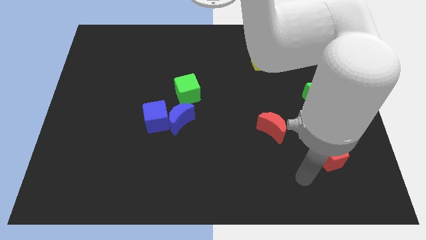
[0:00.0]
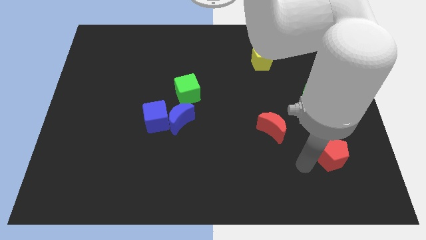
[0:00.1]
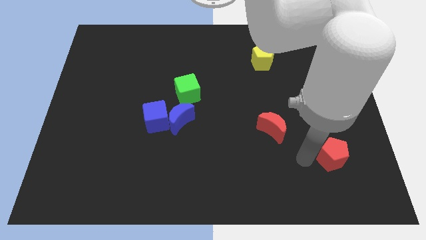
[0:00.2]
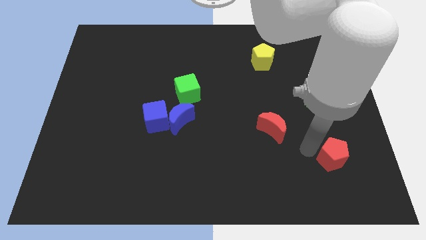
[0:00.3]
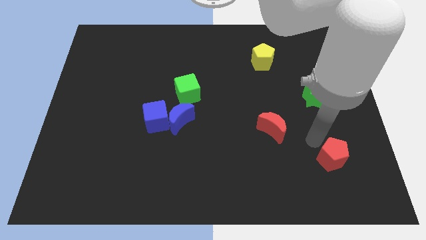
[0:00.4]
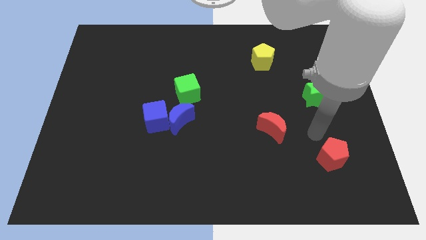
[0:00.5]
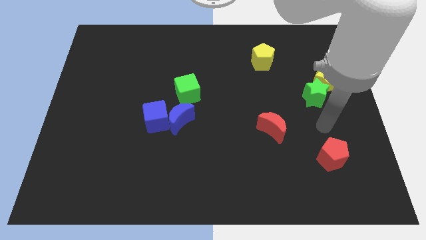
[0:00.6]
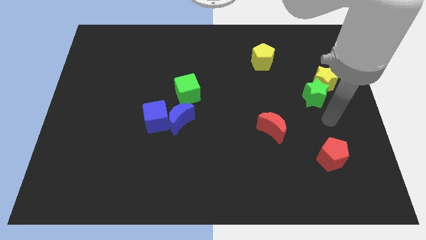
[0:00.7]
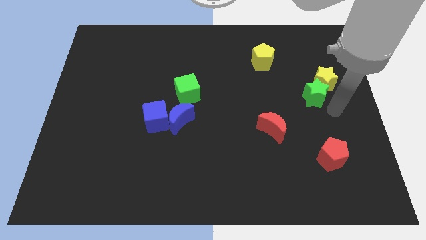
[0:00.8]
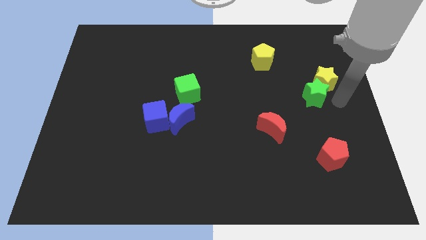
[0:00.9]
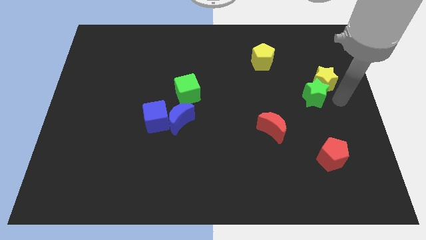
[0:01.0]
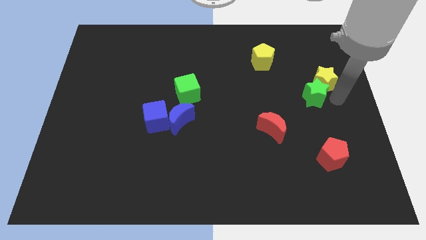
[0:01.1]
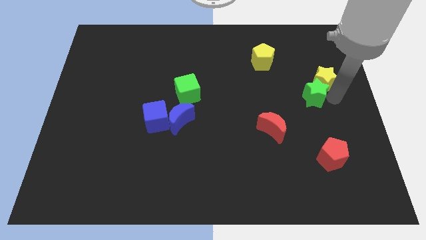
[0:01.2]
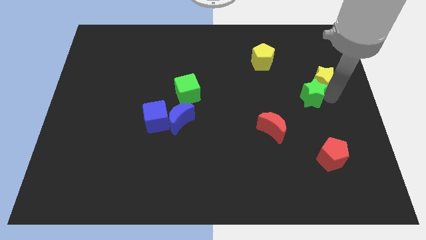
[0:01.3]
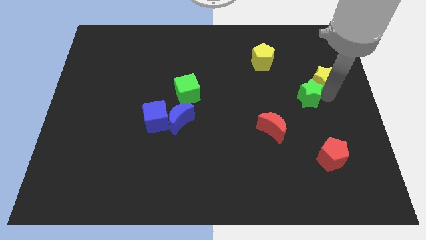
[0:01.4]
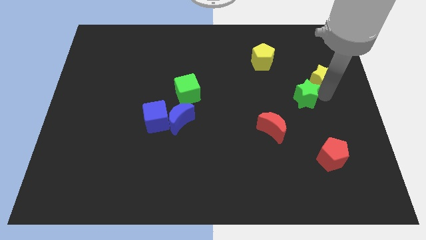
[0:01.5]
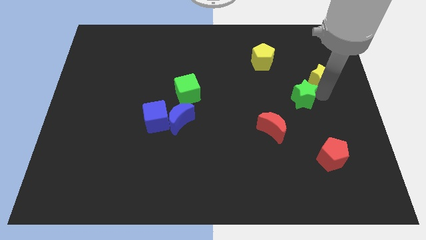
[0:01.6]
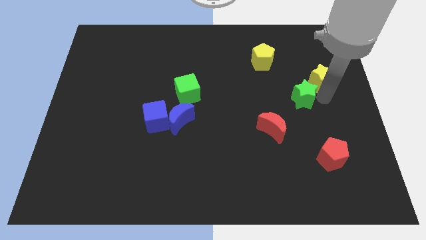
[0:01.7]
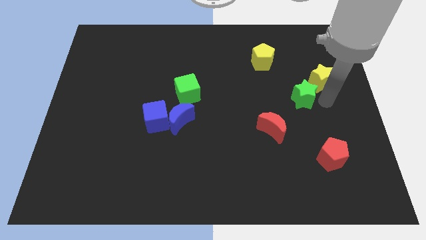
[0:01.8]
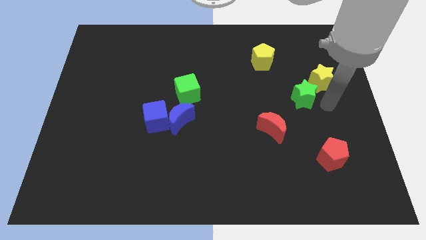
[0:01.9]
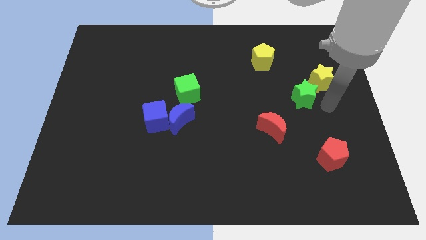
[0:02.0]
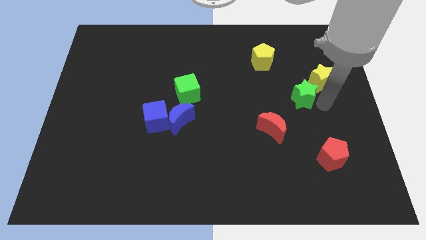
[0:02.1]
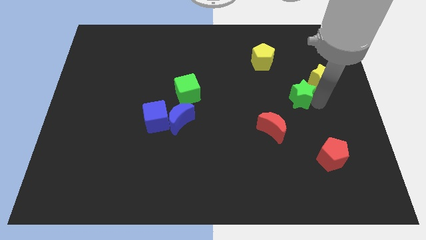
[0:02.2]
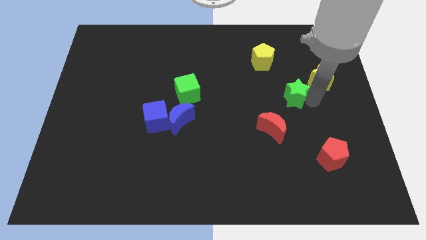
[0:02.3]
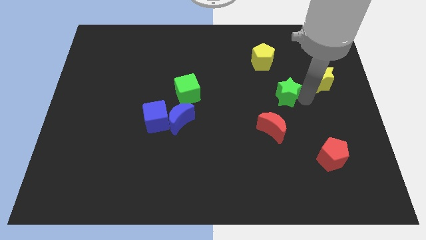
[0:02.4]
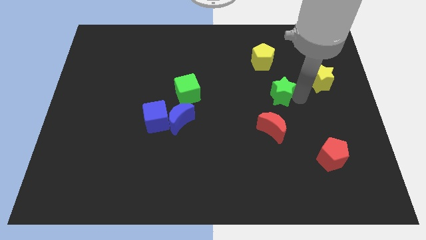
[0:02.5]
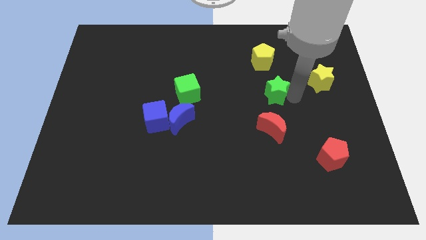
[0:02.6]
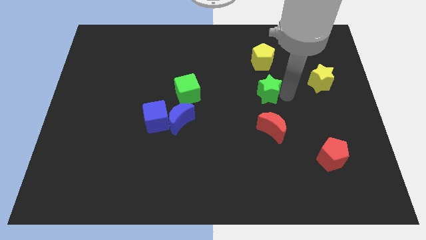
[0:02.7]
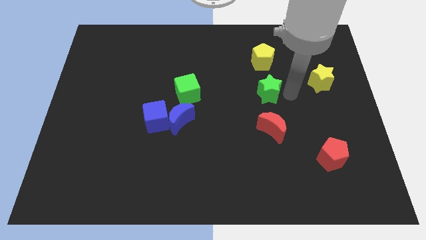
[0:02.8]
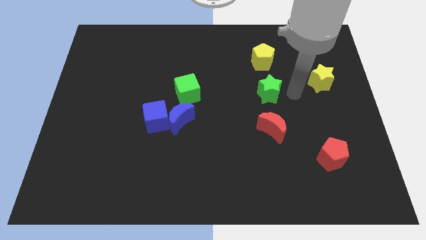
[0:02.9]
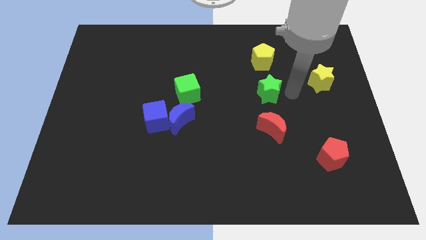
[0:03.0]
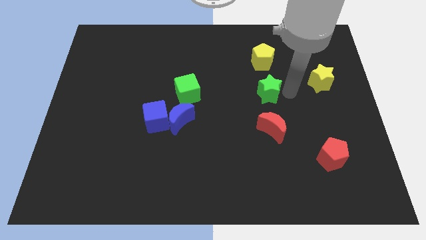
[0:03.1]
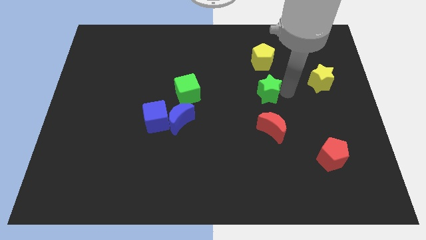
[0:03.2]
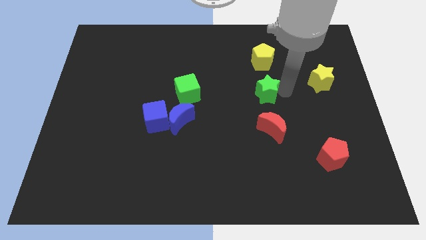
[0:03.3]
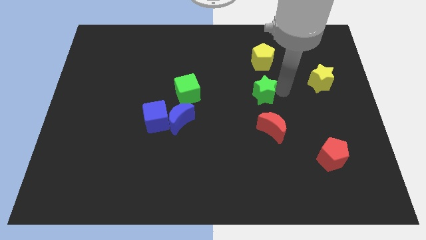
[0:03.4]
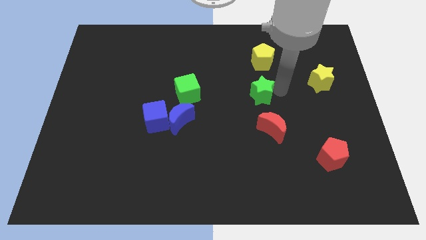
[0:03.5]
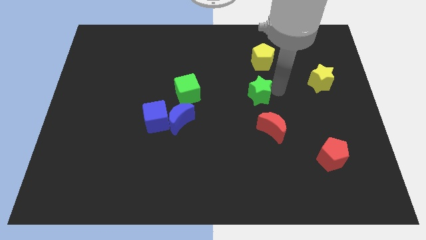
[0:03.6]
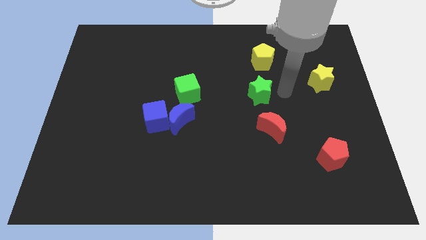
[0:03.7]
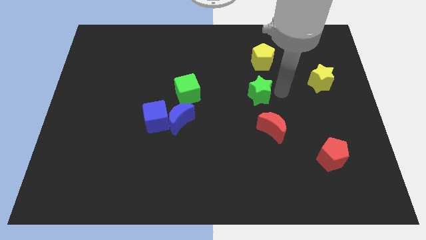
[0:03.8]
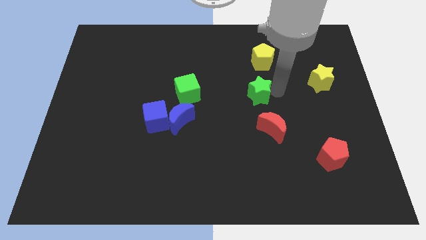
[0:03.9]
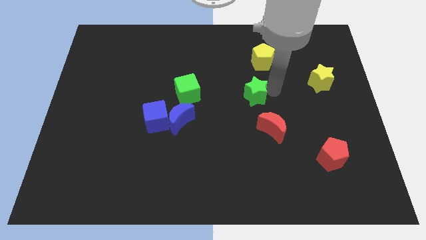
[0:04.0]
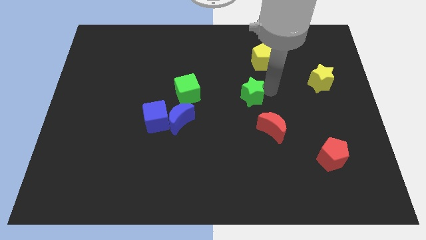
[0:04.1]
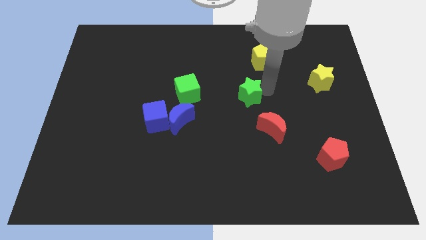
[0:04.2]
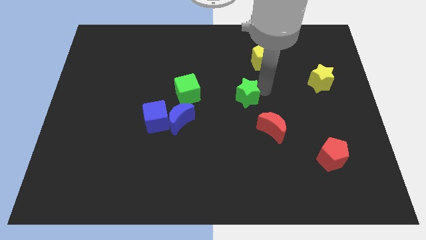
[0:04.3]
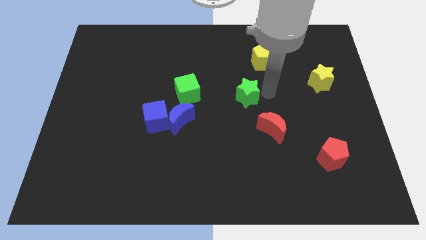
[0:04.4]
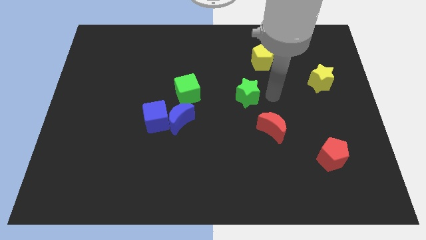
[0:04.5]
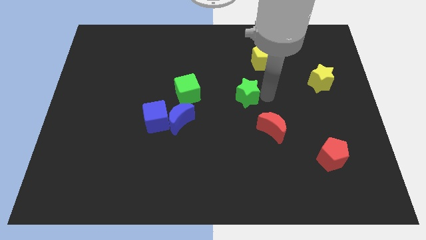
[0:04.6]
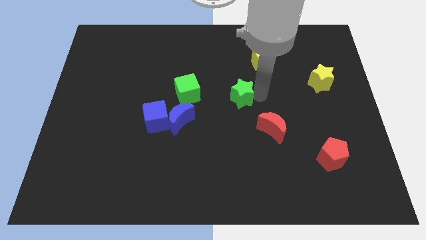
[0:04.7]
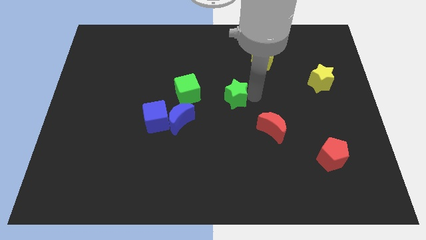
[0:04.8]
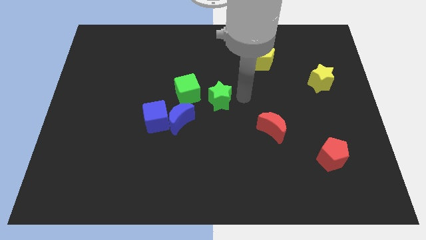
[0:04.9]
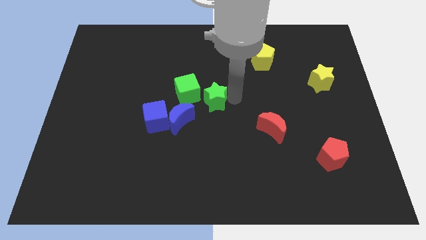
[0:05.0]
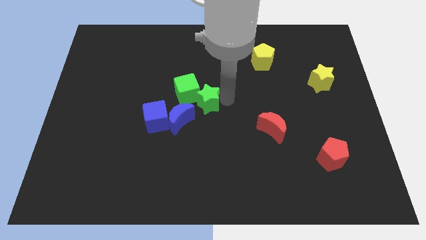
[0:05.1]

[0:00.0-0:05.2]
slide the green star next to the green cube

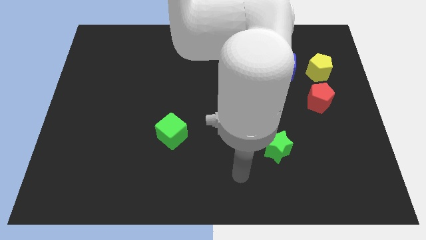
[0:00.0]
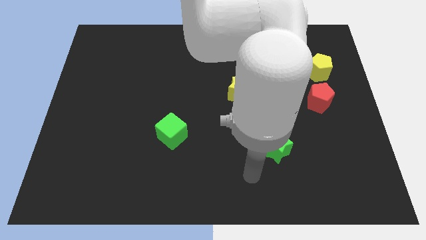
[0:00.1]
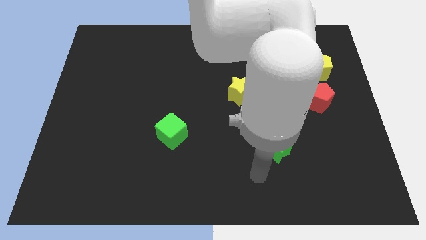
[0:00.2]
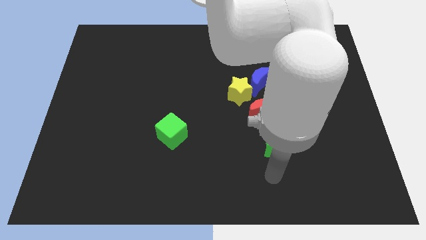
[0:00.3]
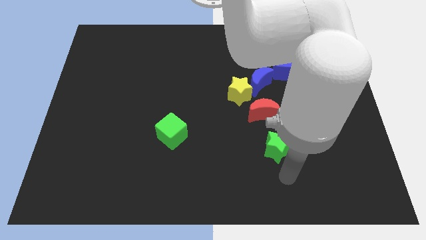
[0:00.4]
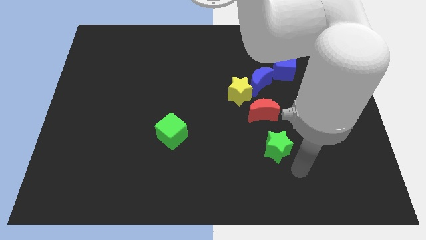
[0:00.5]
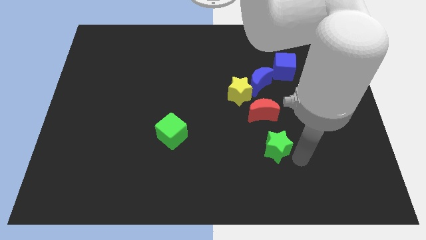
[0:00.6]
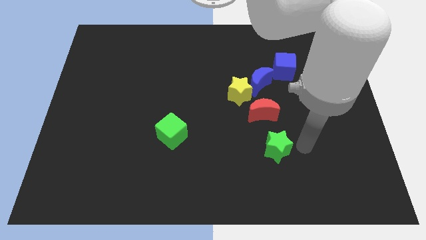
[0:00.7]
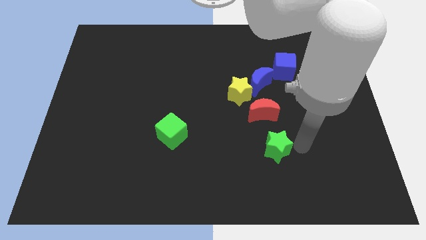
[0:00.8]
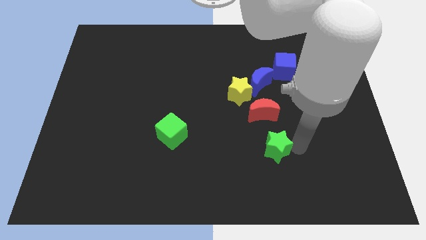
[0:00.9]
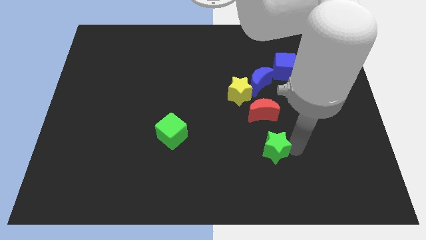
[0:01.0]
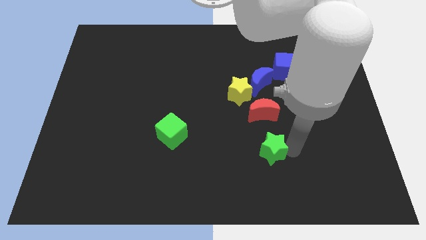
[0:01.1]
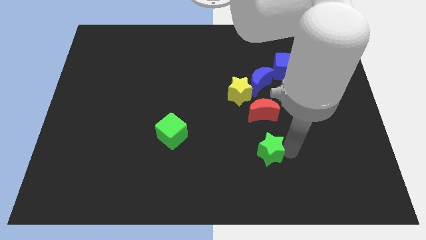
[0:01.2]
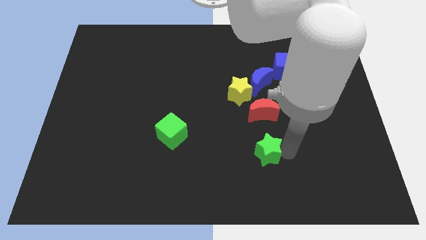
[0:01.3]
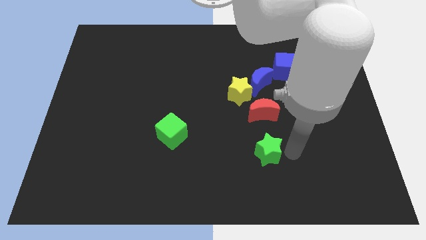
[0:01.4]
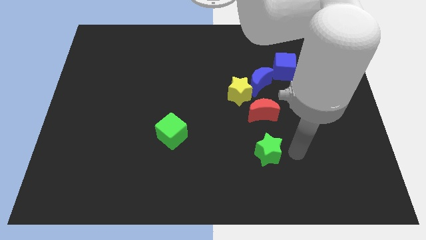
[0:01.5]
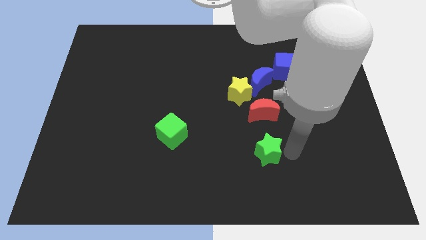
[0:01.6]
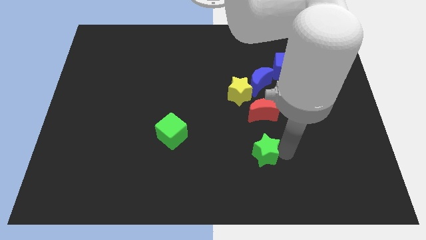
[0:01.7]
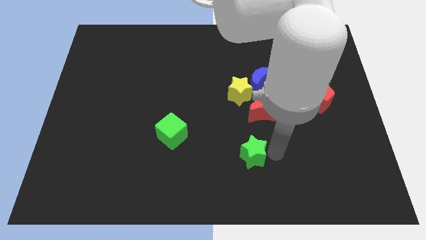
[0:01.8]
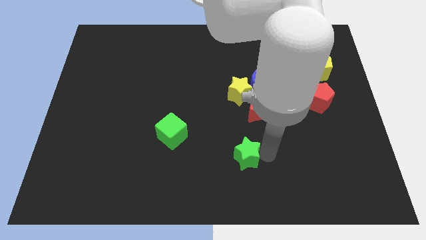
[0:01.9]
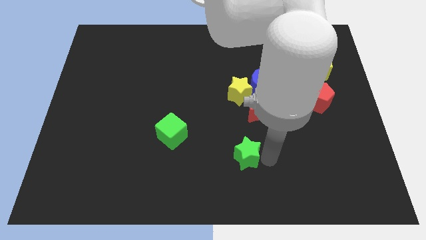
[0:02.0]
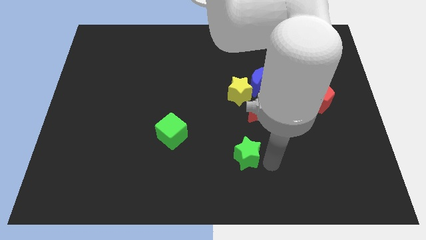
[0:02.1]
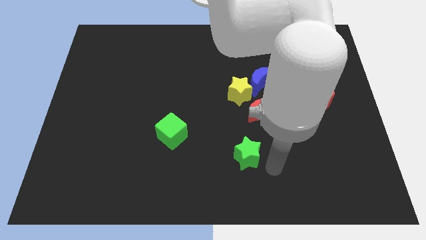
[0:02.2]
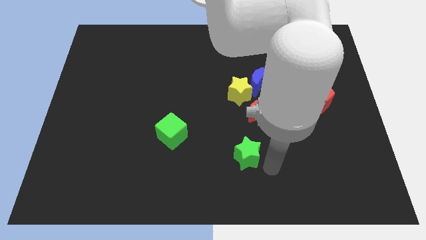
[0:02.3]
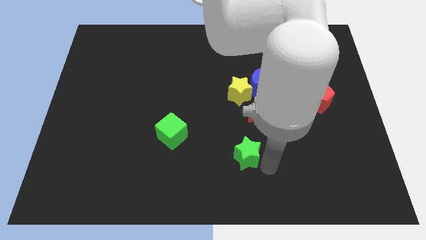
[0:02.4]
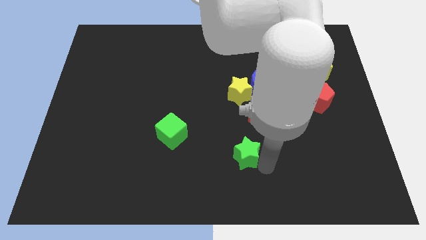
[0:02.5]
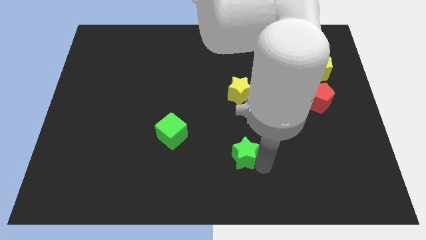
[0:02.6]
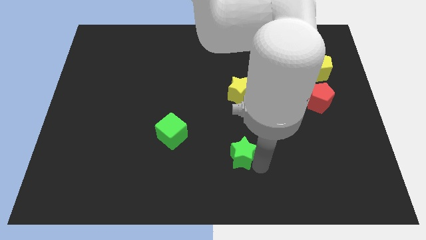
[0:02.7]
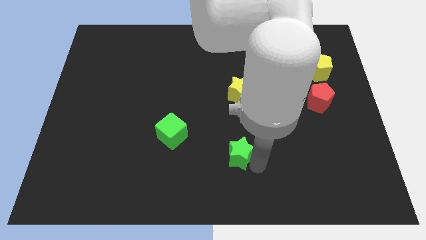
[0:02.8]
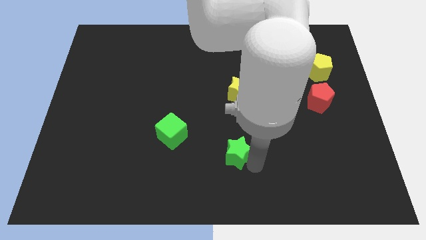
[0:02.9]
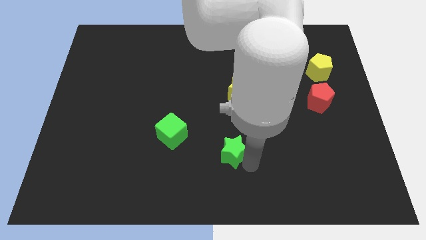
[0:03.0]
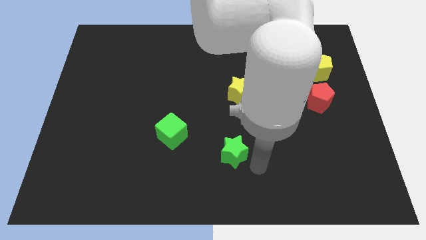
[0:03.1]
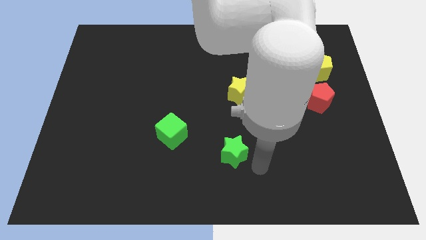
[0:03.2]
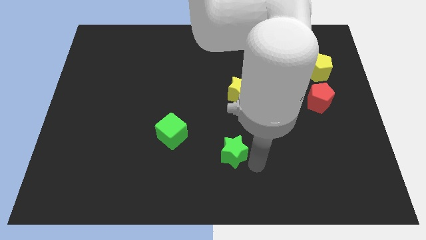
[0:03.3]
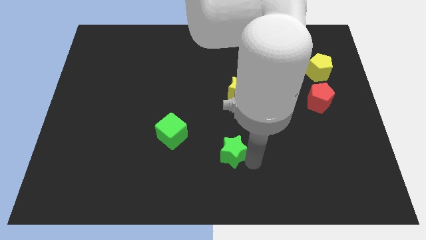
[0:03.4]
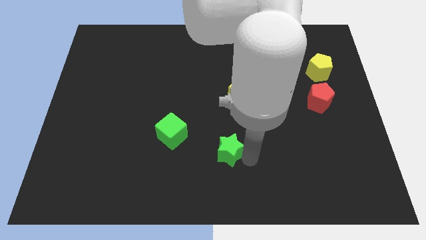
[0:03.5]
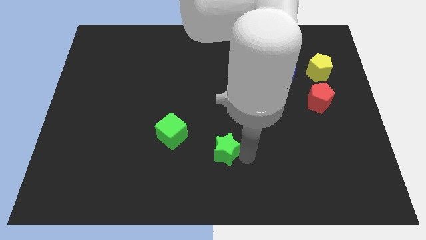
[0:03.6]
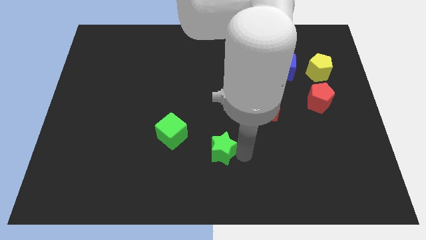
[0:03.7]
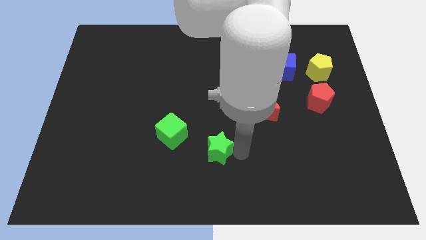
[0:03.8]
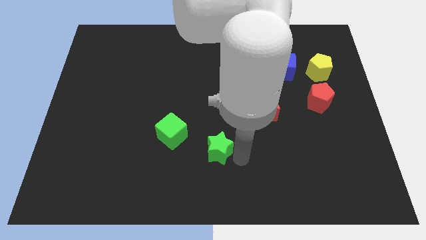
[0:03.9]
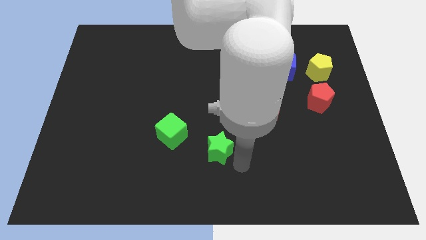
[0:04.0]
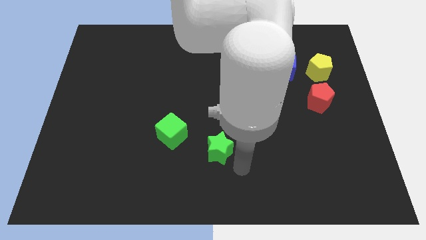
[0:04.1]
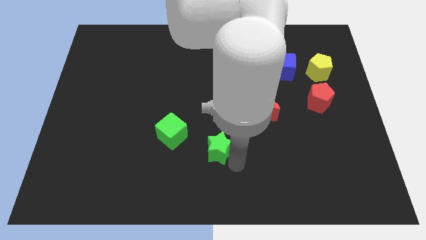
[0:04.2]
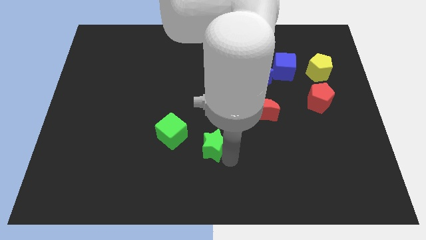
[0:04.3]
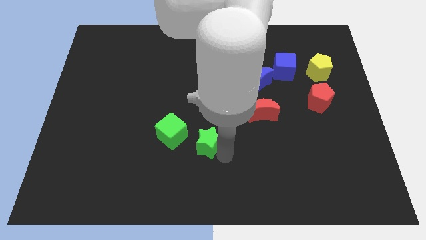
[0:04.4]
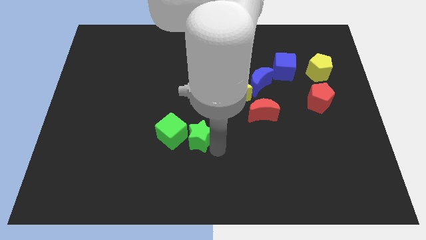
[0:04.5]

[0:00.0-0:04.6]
put the green star close to the green cube
